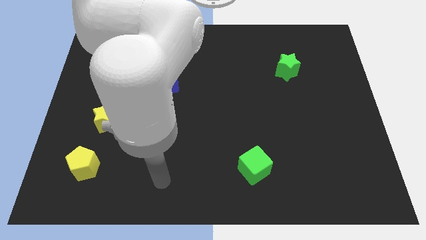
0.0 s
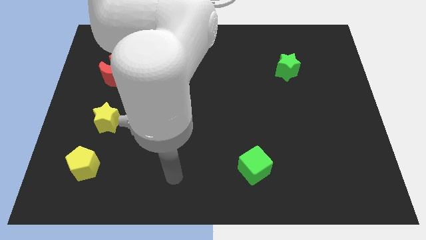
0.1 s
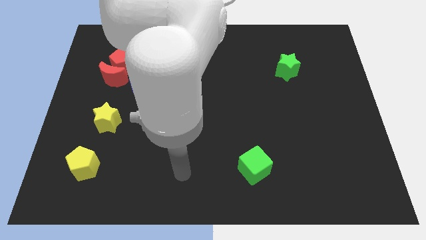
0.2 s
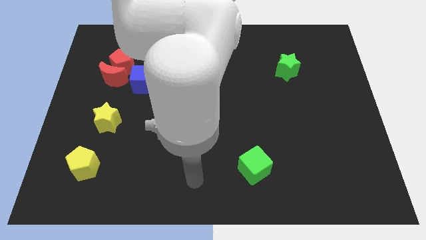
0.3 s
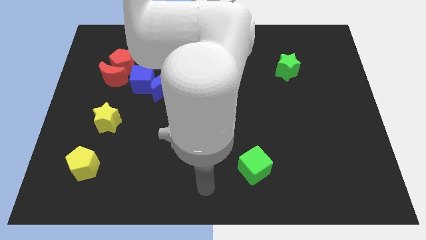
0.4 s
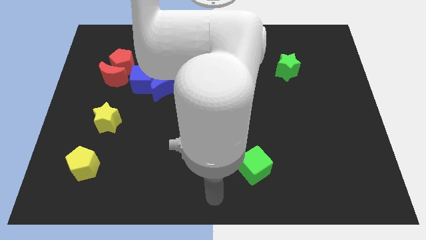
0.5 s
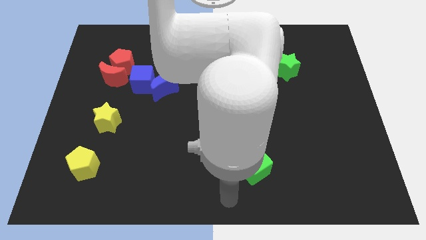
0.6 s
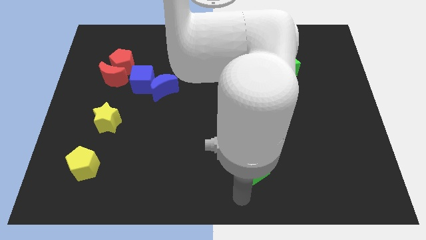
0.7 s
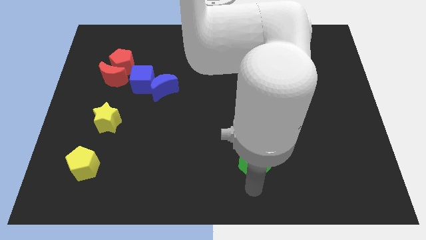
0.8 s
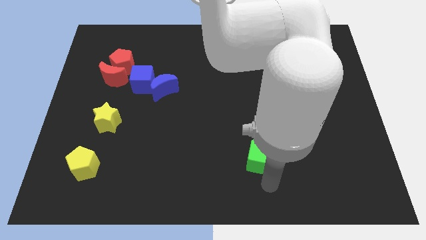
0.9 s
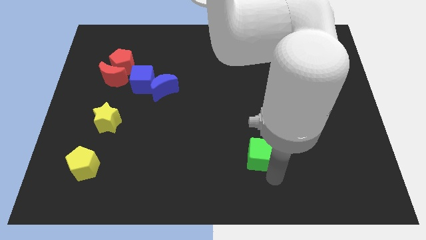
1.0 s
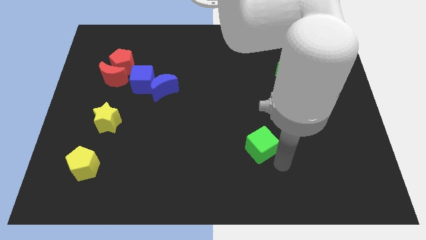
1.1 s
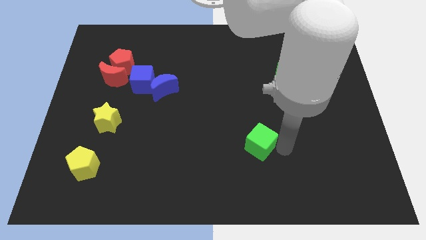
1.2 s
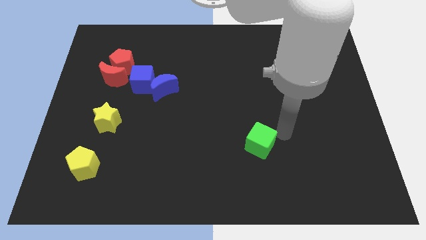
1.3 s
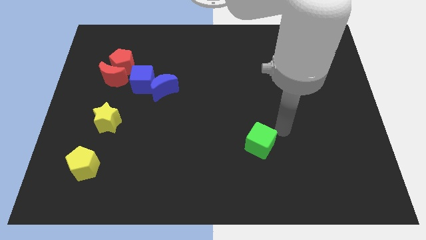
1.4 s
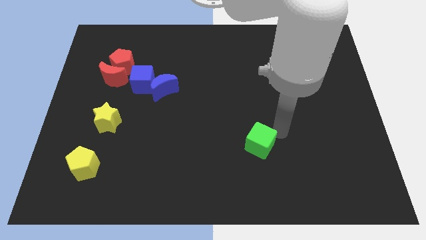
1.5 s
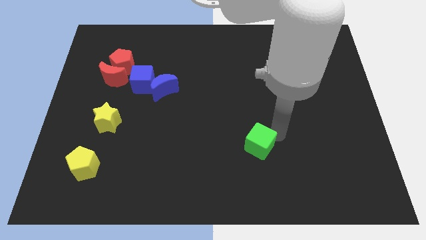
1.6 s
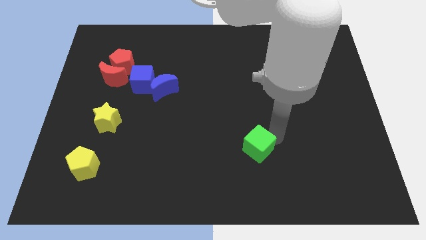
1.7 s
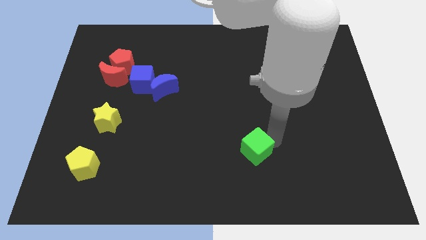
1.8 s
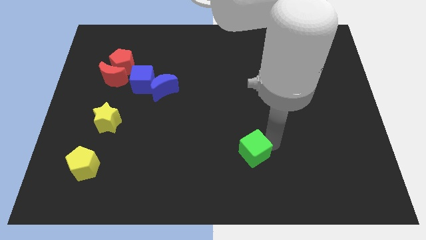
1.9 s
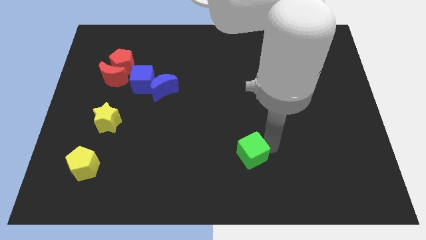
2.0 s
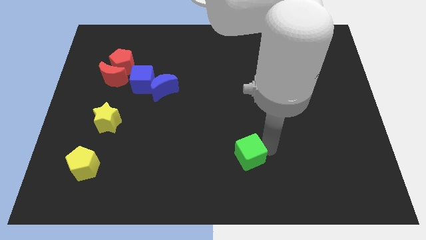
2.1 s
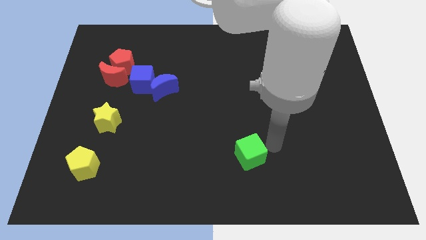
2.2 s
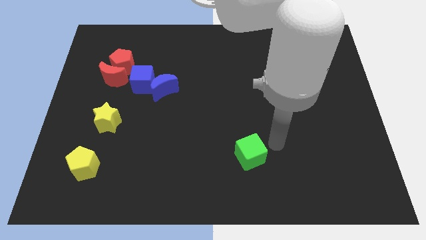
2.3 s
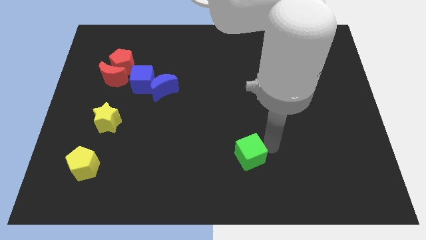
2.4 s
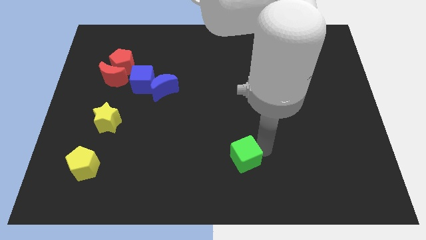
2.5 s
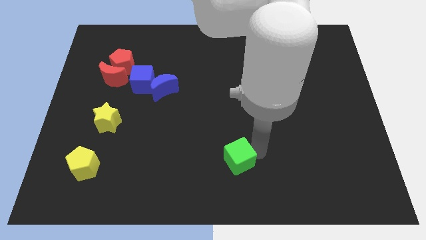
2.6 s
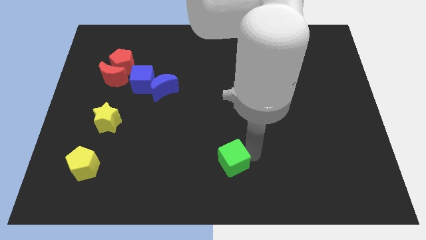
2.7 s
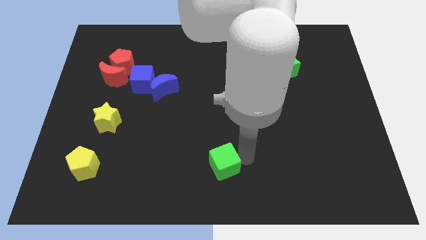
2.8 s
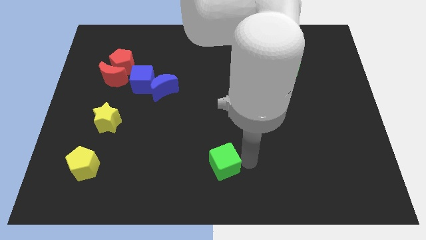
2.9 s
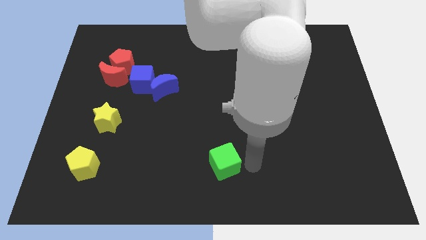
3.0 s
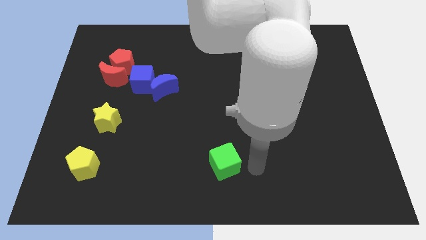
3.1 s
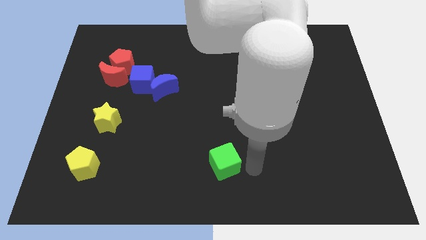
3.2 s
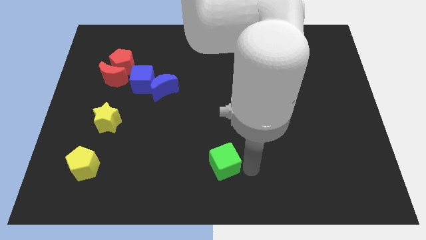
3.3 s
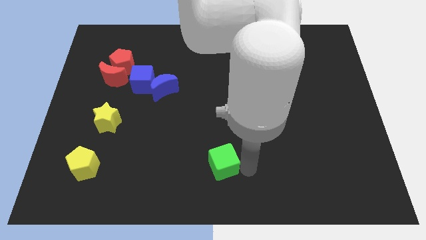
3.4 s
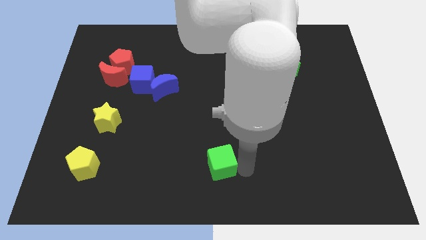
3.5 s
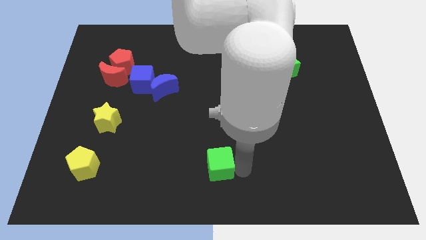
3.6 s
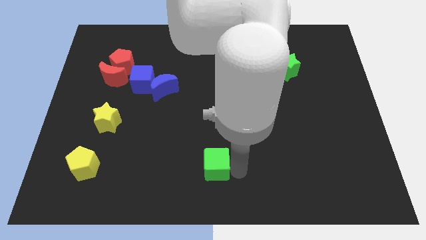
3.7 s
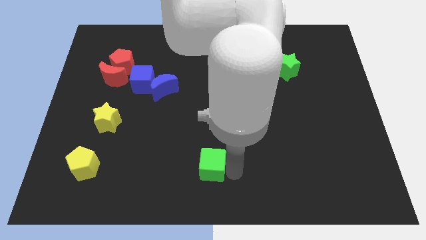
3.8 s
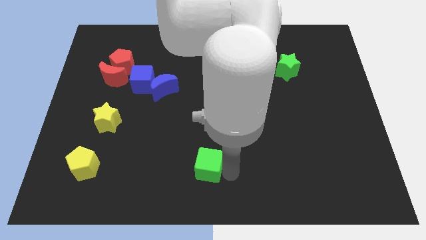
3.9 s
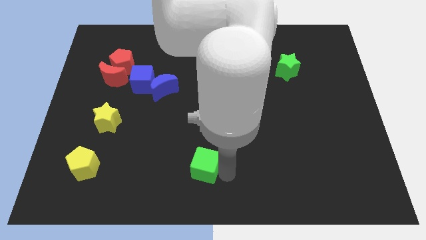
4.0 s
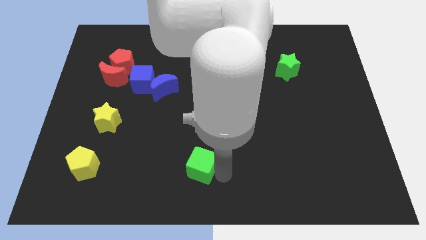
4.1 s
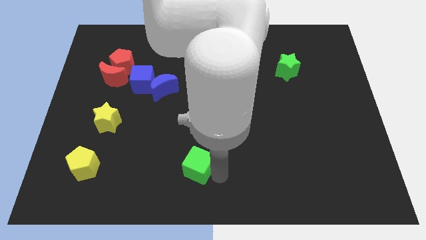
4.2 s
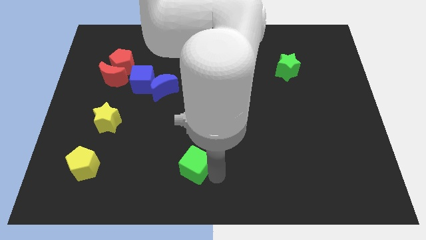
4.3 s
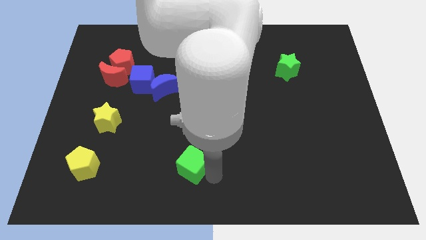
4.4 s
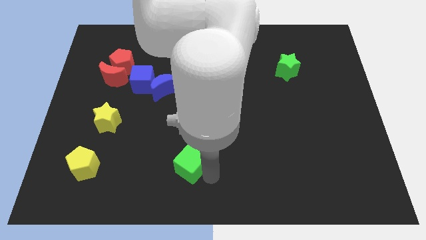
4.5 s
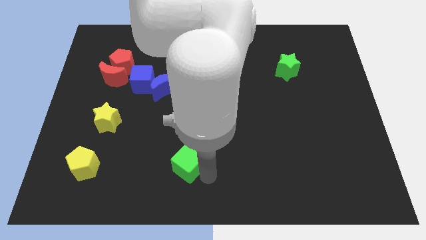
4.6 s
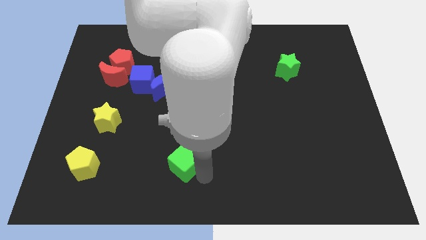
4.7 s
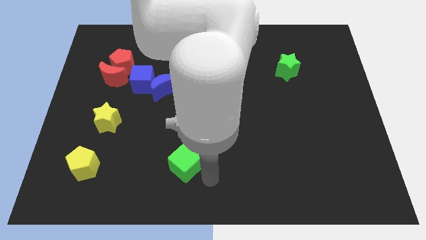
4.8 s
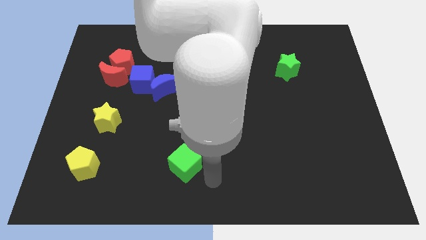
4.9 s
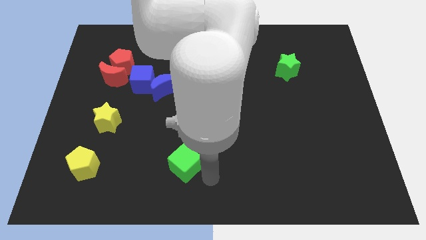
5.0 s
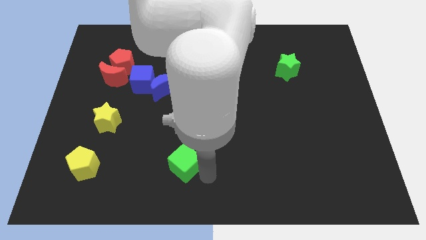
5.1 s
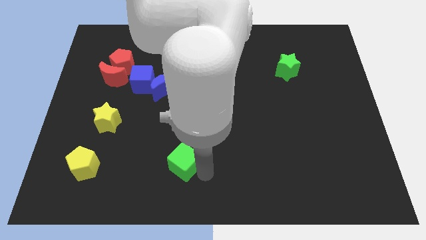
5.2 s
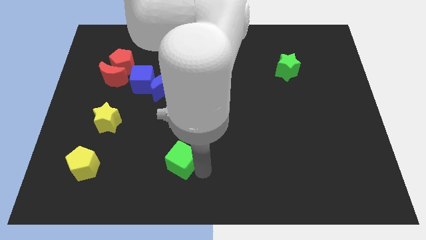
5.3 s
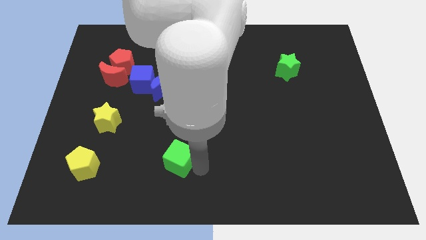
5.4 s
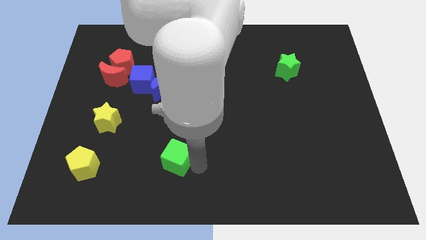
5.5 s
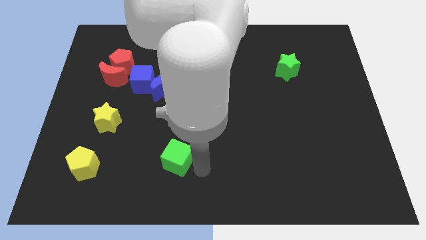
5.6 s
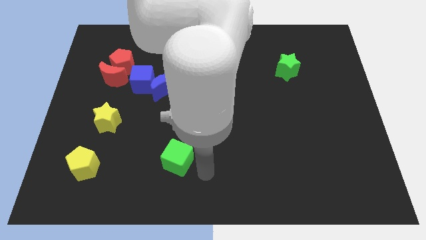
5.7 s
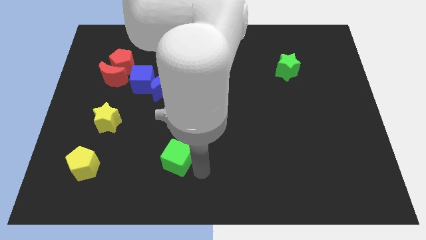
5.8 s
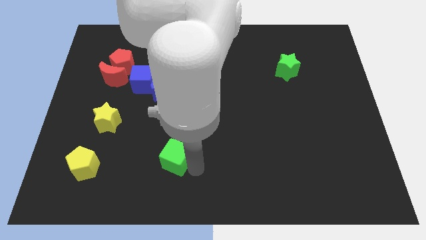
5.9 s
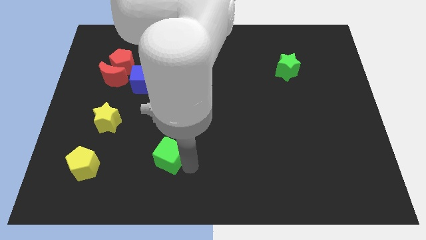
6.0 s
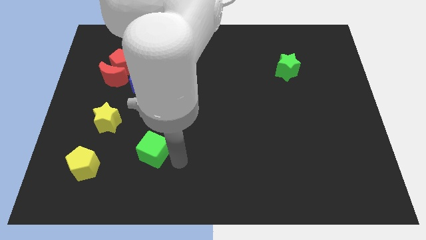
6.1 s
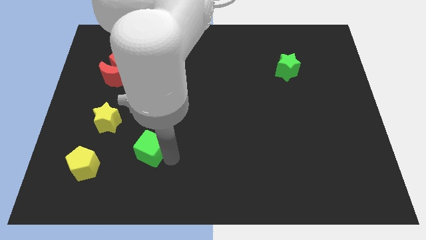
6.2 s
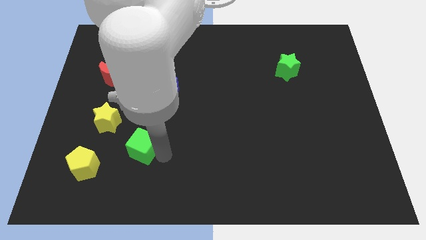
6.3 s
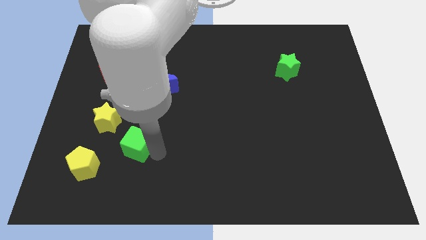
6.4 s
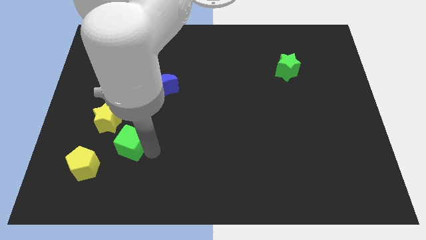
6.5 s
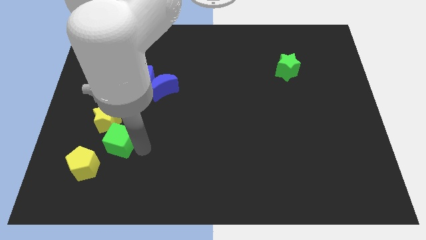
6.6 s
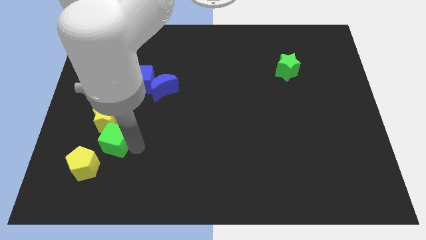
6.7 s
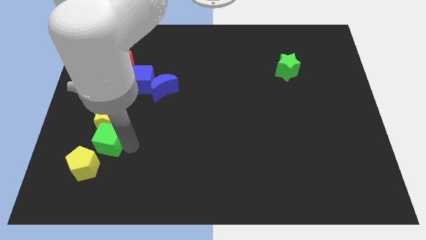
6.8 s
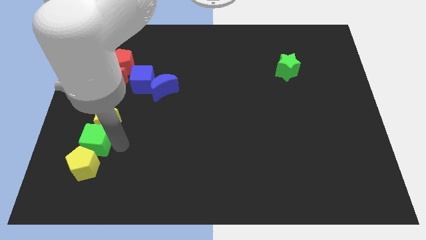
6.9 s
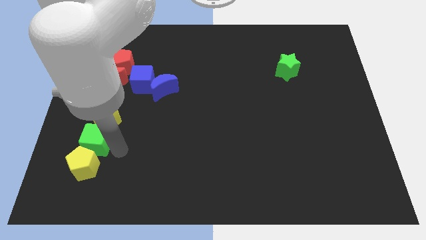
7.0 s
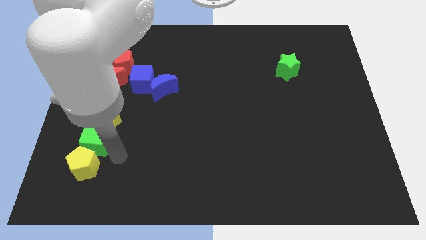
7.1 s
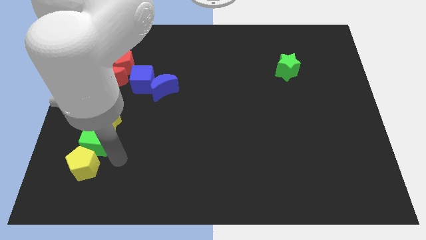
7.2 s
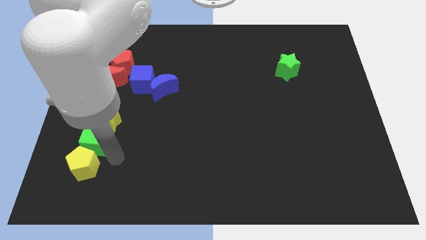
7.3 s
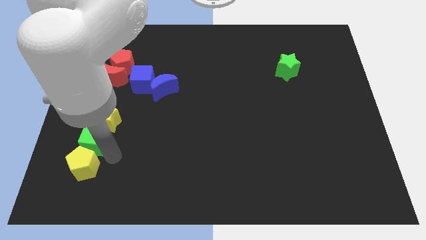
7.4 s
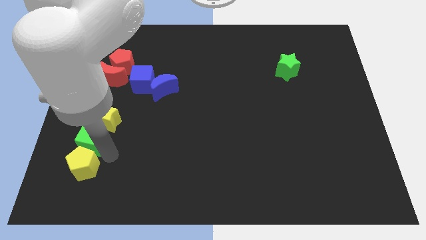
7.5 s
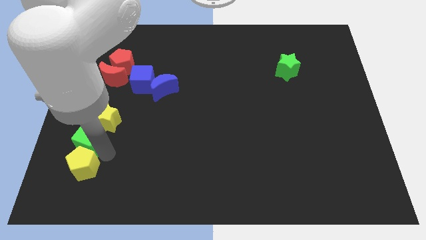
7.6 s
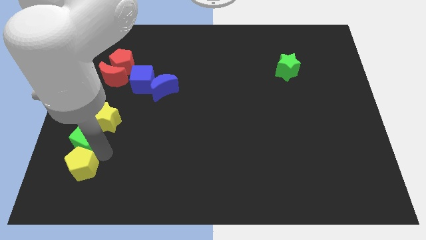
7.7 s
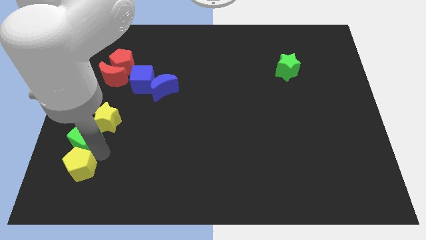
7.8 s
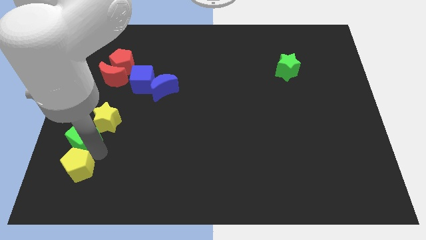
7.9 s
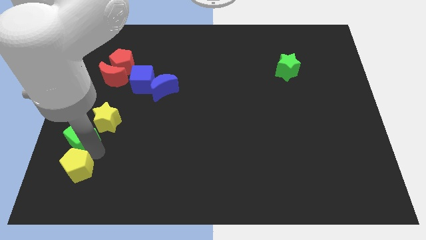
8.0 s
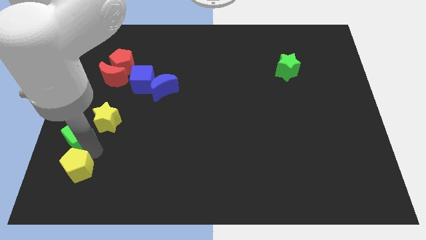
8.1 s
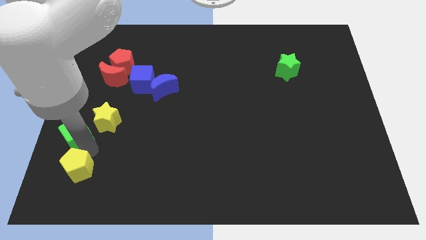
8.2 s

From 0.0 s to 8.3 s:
push the green cube to the left side
